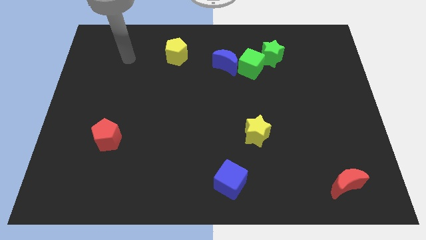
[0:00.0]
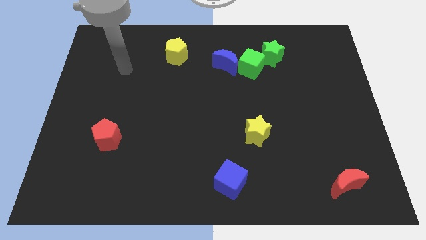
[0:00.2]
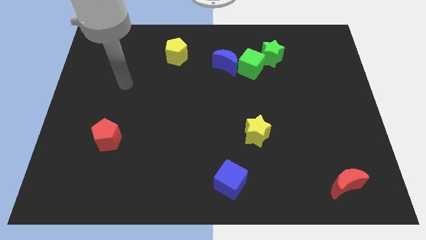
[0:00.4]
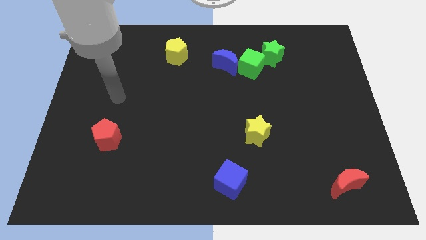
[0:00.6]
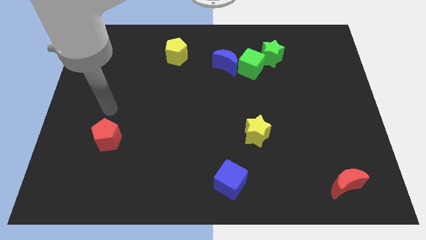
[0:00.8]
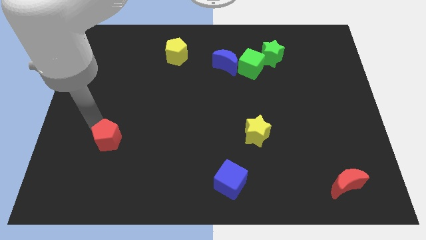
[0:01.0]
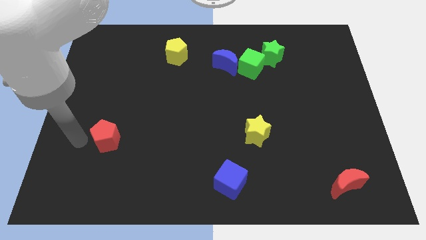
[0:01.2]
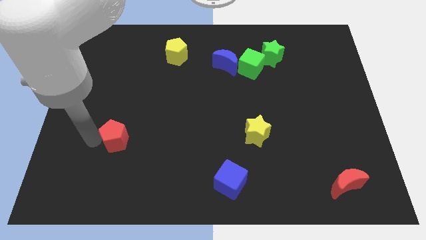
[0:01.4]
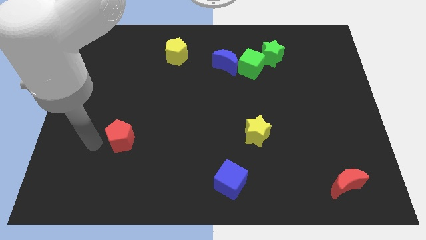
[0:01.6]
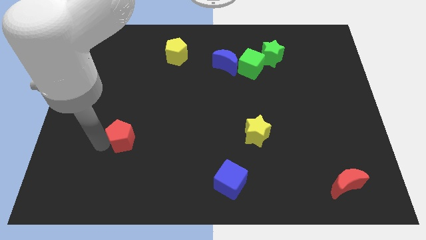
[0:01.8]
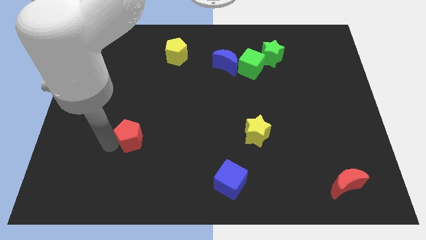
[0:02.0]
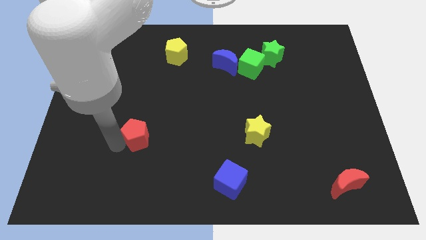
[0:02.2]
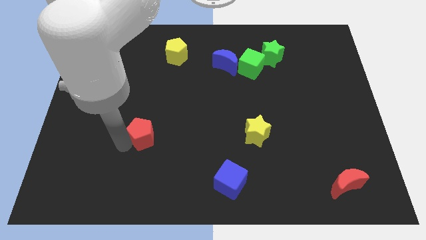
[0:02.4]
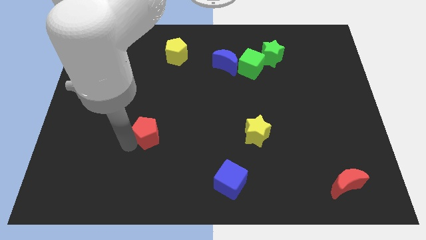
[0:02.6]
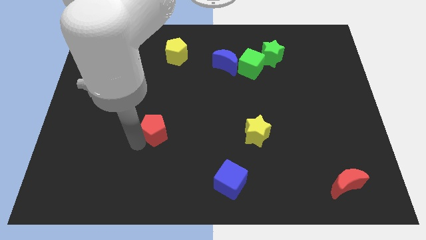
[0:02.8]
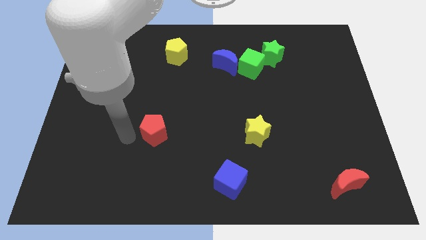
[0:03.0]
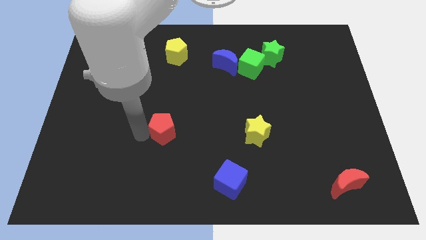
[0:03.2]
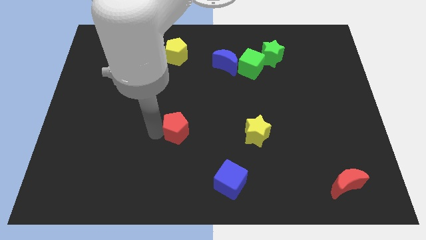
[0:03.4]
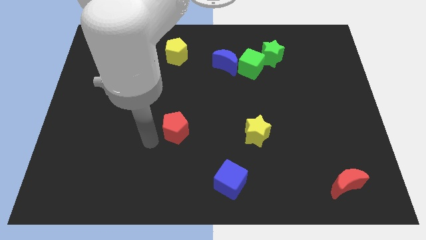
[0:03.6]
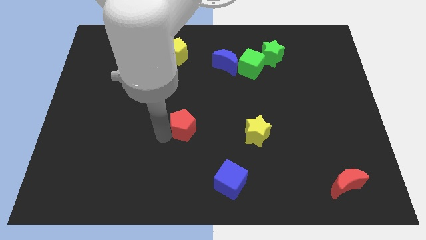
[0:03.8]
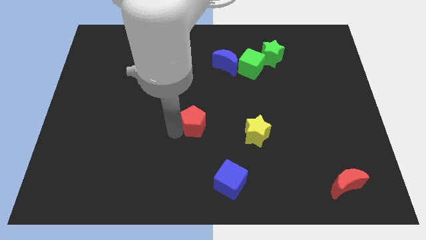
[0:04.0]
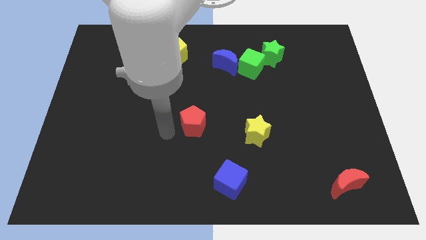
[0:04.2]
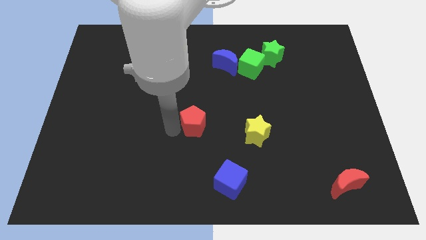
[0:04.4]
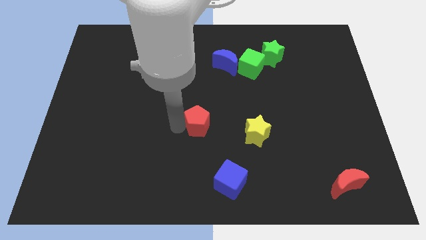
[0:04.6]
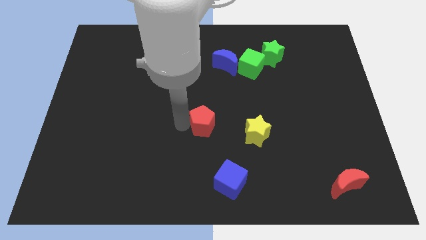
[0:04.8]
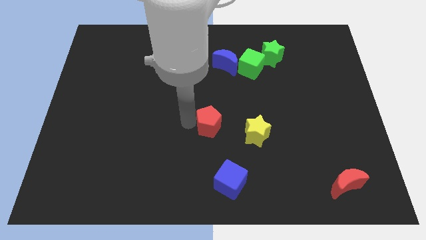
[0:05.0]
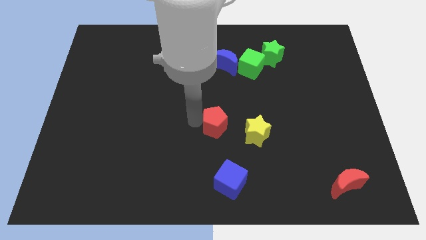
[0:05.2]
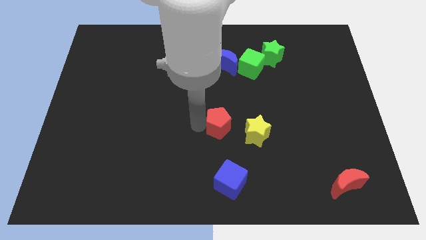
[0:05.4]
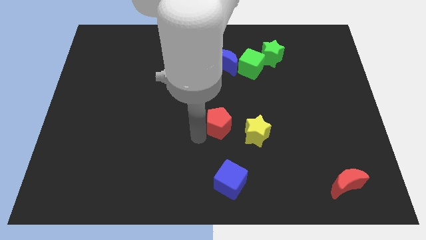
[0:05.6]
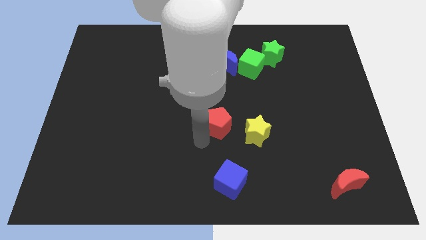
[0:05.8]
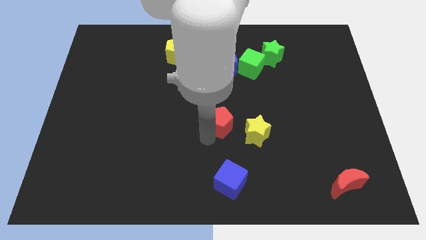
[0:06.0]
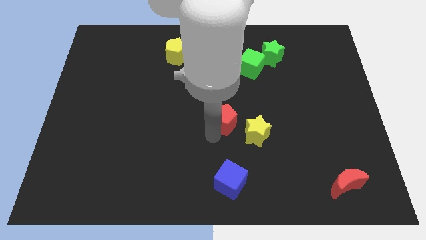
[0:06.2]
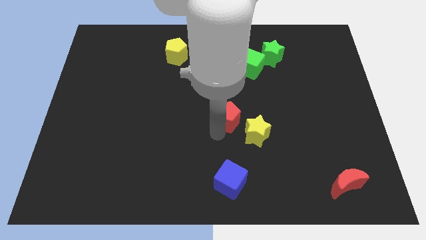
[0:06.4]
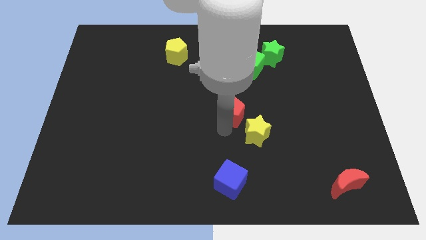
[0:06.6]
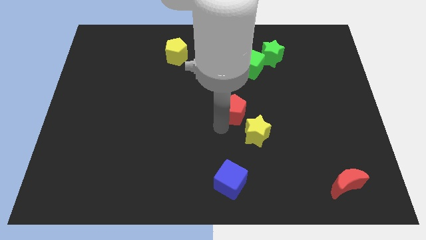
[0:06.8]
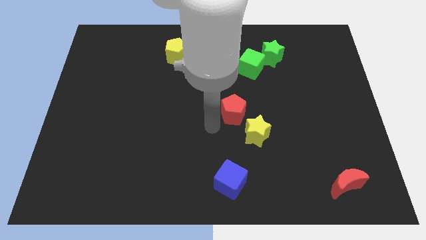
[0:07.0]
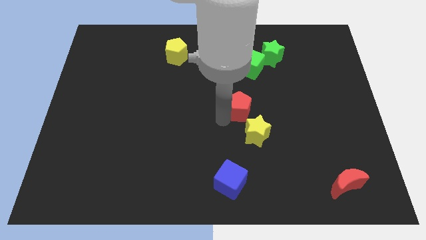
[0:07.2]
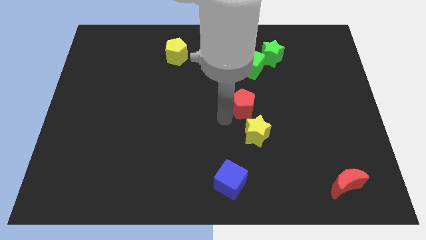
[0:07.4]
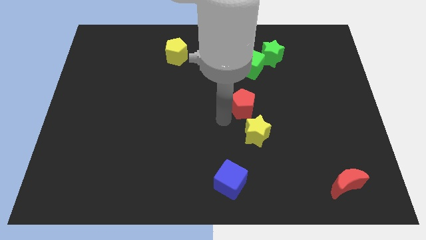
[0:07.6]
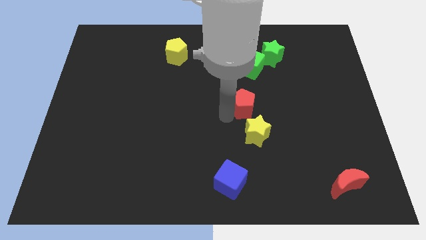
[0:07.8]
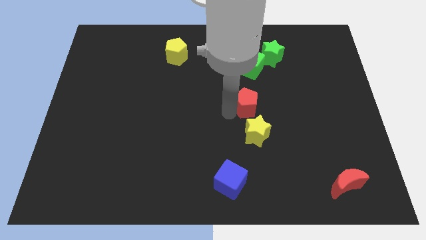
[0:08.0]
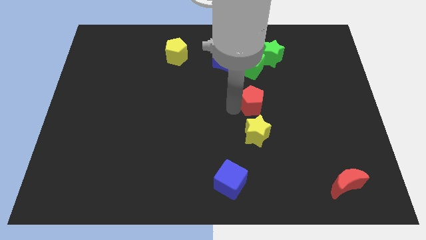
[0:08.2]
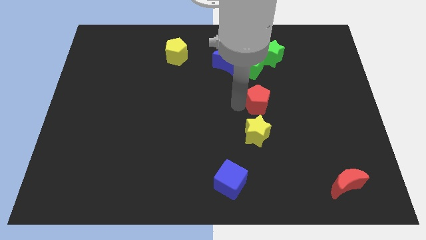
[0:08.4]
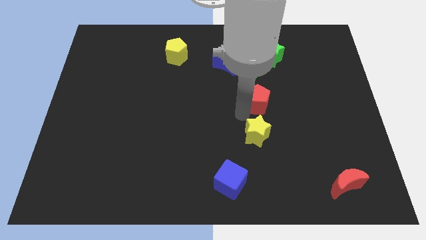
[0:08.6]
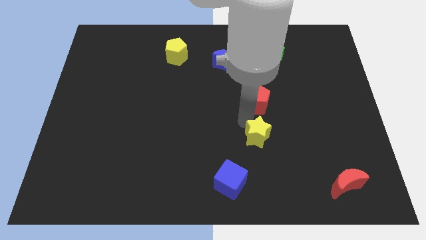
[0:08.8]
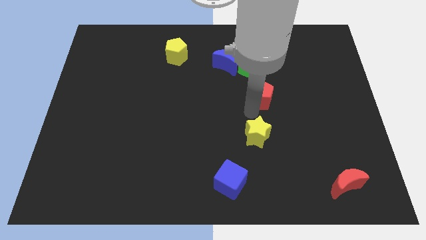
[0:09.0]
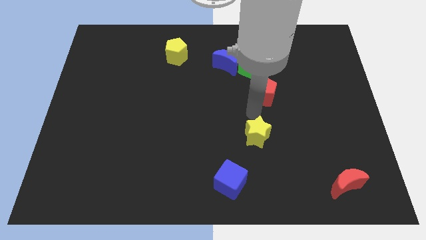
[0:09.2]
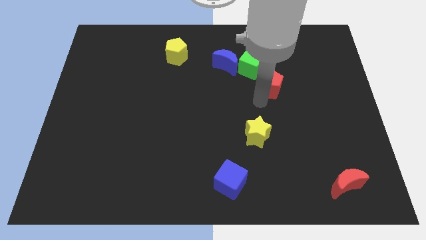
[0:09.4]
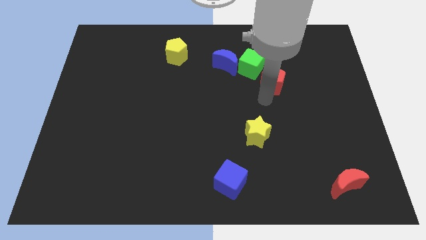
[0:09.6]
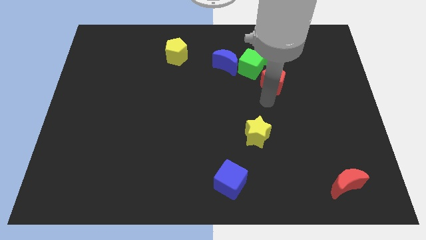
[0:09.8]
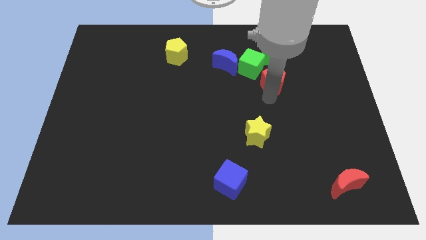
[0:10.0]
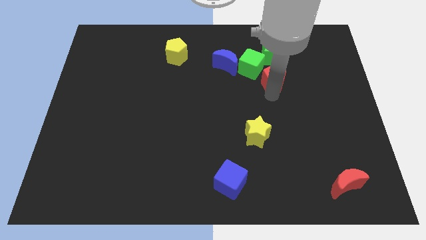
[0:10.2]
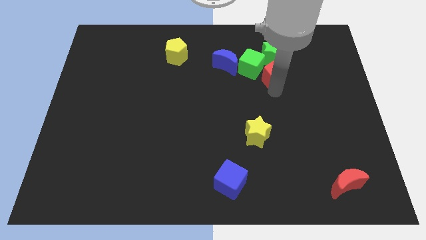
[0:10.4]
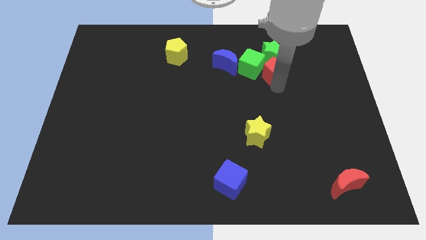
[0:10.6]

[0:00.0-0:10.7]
push the red pentagon close to the green star

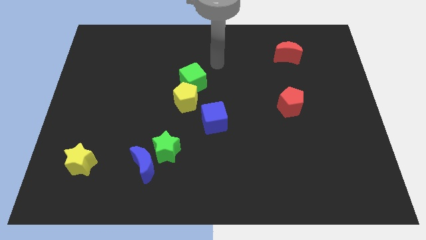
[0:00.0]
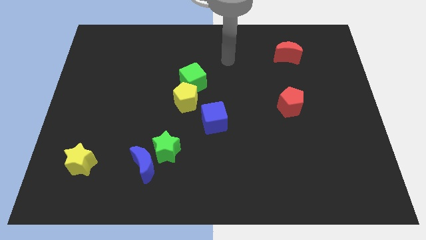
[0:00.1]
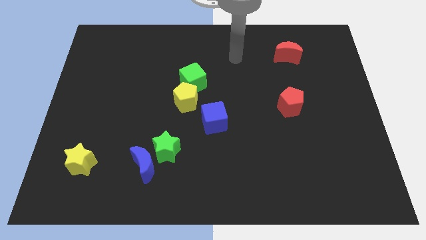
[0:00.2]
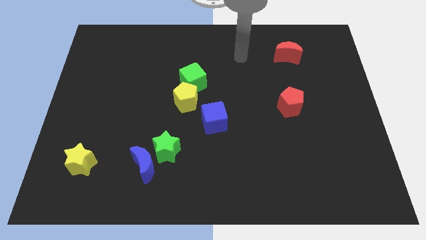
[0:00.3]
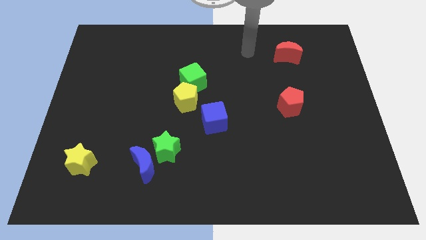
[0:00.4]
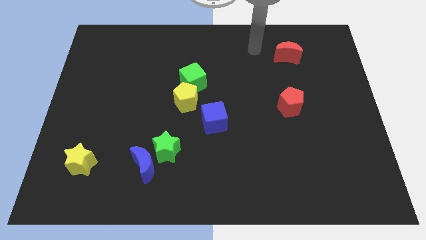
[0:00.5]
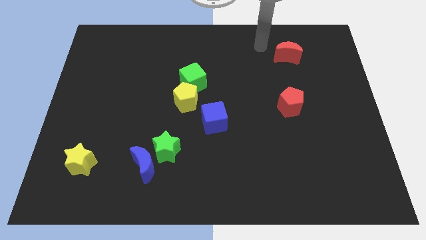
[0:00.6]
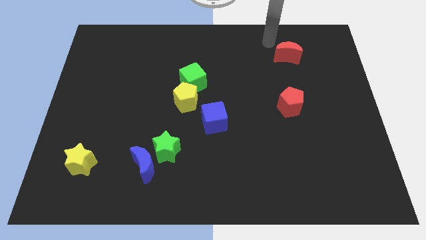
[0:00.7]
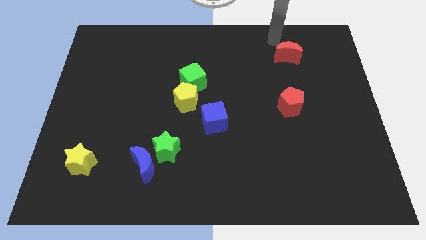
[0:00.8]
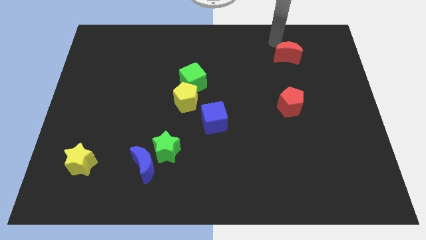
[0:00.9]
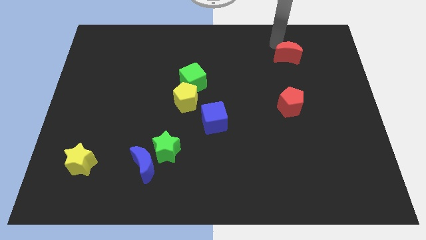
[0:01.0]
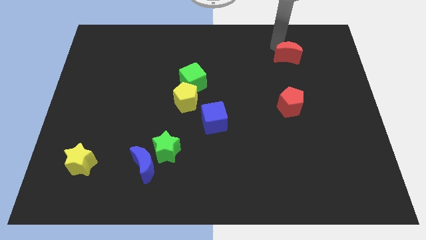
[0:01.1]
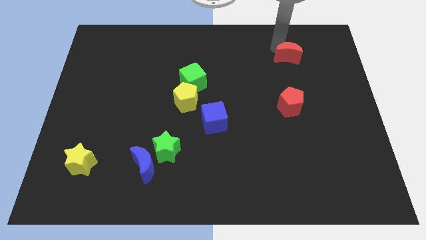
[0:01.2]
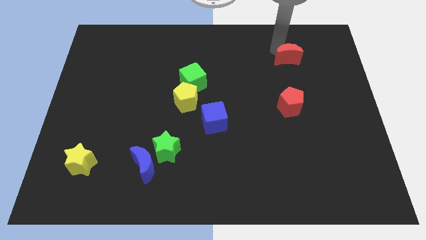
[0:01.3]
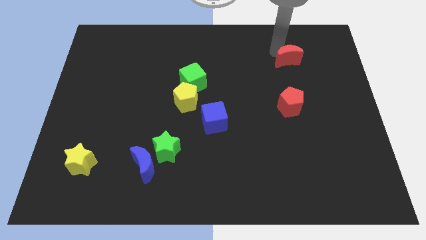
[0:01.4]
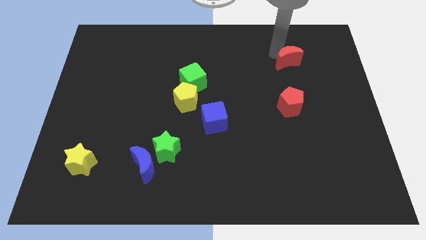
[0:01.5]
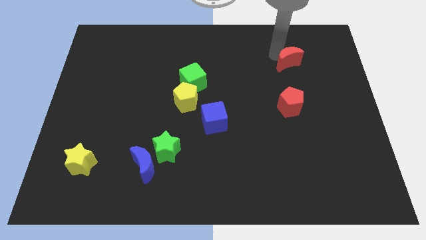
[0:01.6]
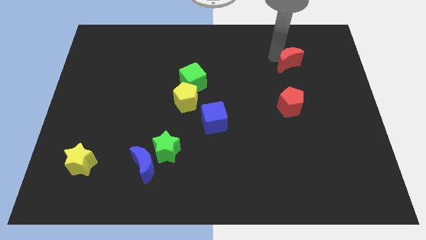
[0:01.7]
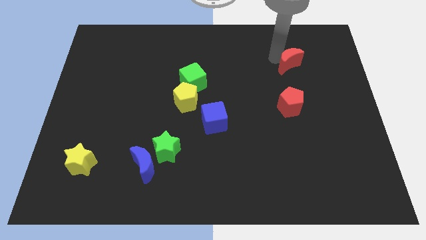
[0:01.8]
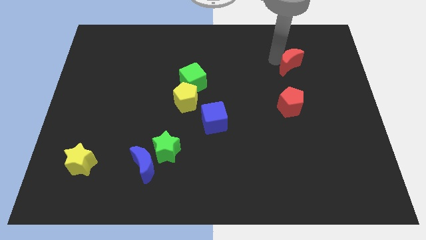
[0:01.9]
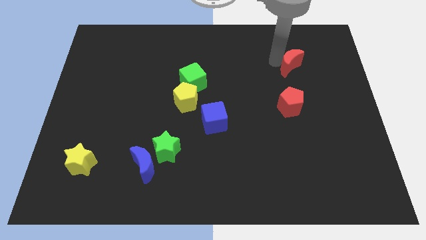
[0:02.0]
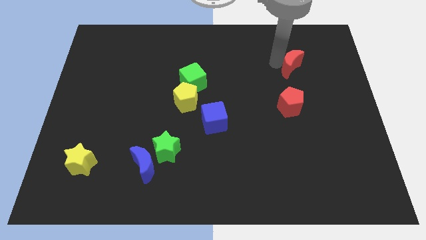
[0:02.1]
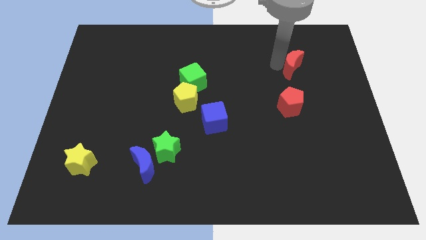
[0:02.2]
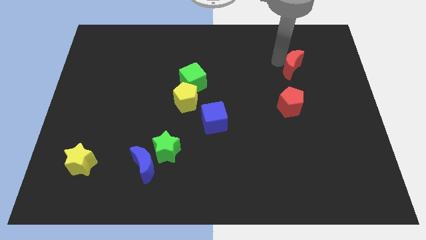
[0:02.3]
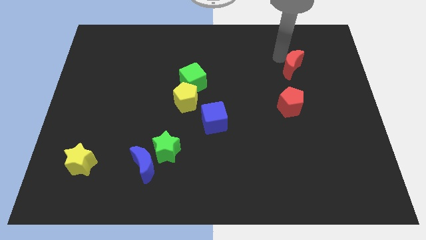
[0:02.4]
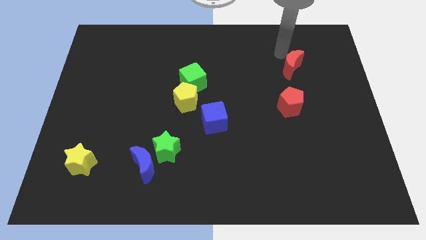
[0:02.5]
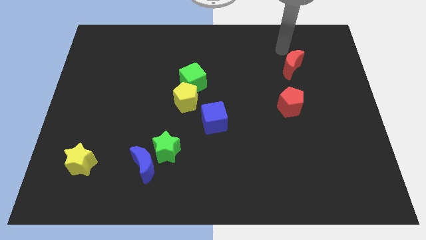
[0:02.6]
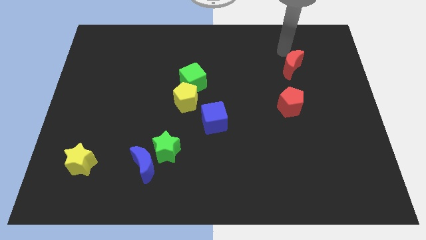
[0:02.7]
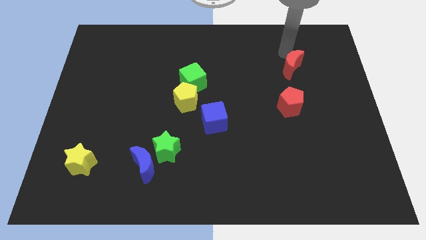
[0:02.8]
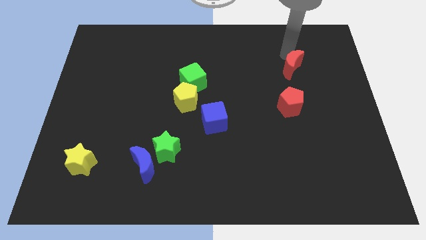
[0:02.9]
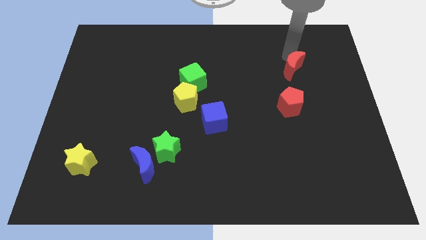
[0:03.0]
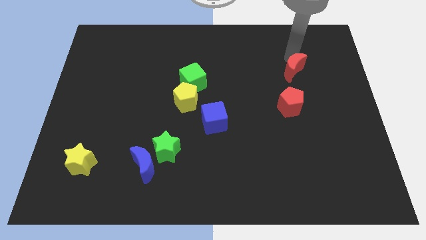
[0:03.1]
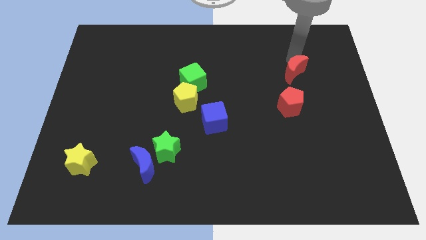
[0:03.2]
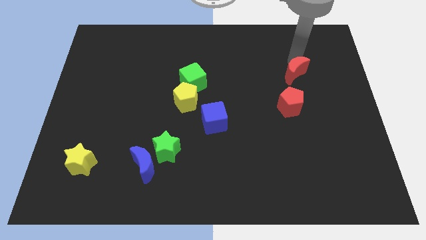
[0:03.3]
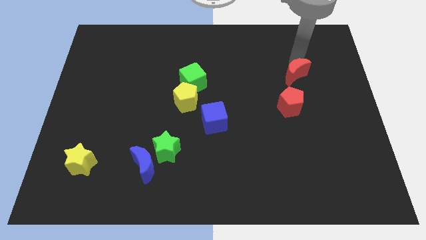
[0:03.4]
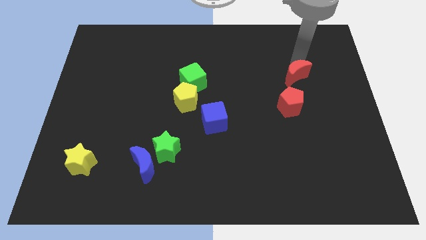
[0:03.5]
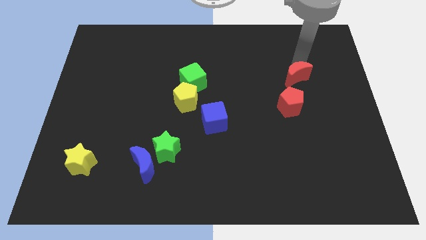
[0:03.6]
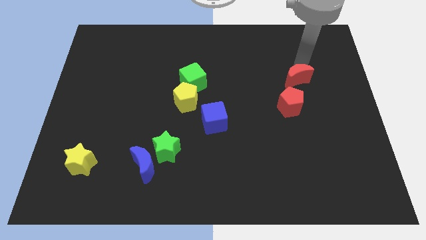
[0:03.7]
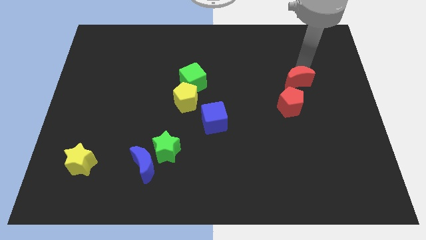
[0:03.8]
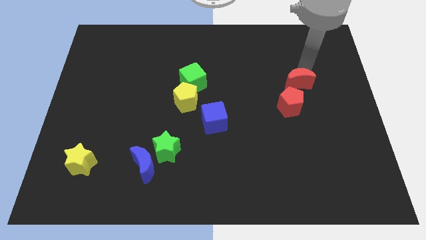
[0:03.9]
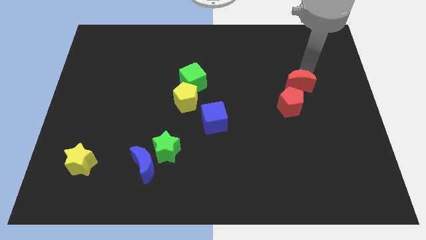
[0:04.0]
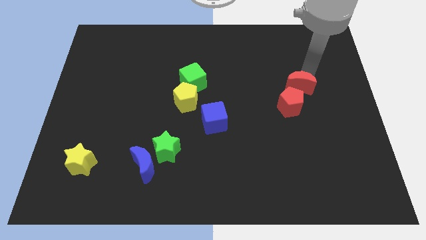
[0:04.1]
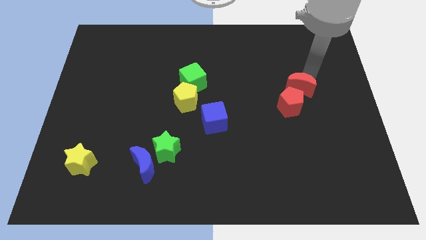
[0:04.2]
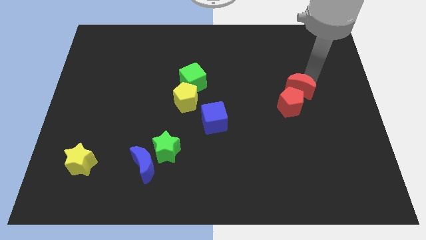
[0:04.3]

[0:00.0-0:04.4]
push the red moon close to the red pentagon
